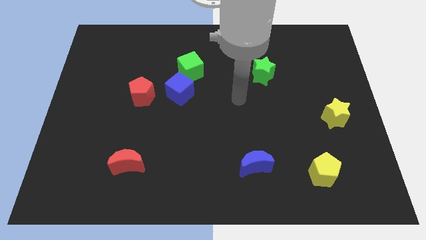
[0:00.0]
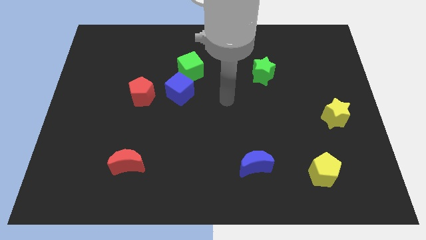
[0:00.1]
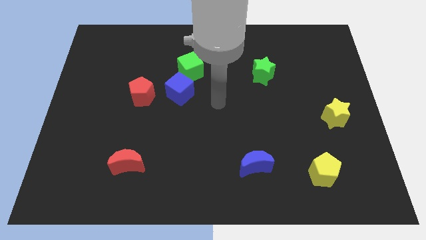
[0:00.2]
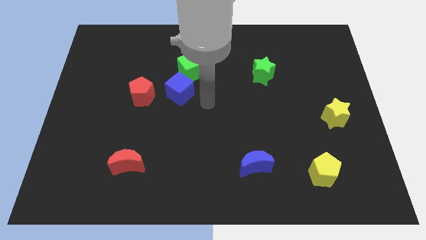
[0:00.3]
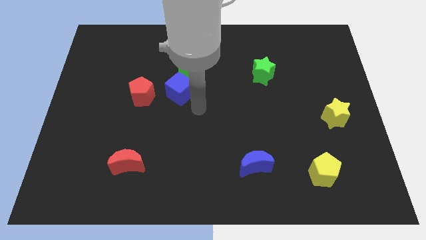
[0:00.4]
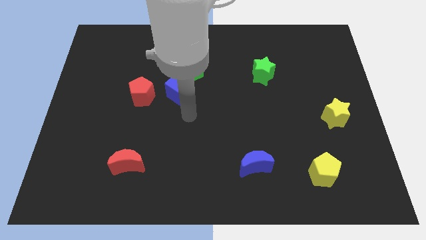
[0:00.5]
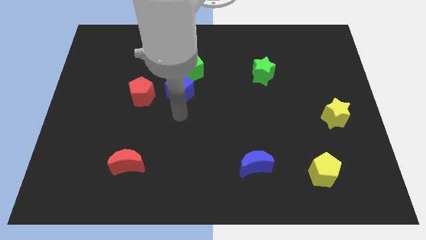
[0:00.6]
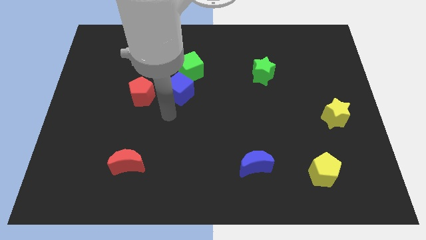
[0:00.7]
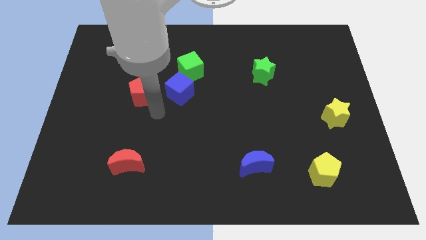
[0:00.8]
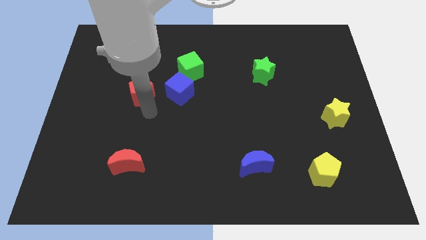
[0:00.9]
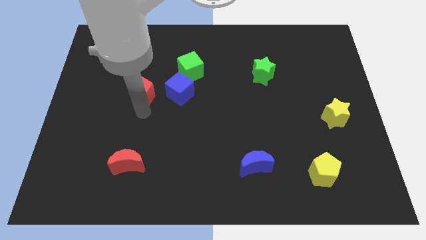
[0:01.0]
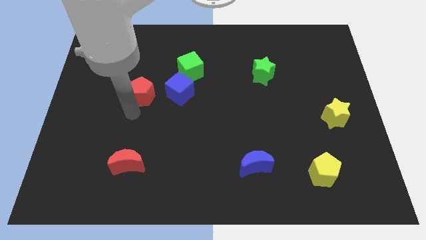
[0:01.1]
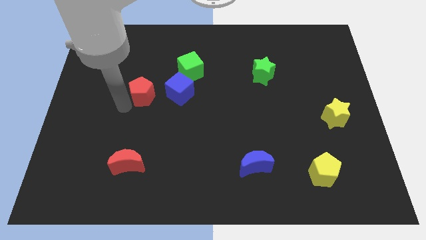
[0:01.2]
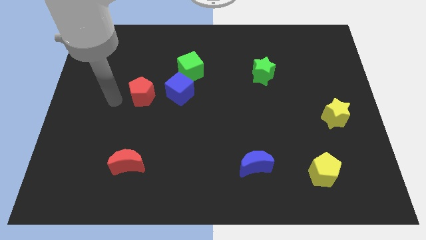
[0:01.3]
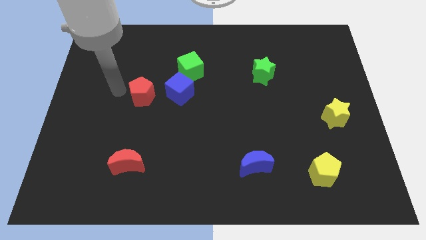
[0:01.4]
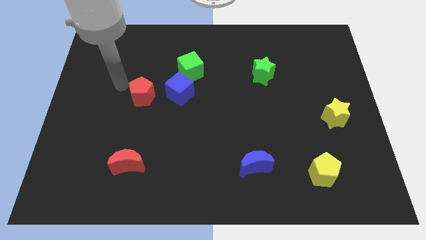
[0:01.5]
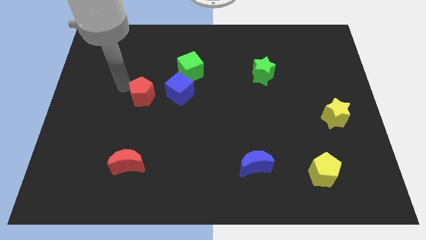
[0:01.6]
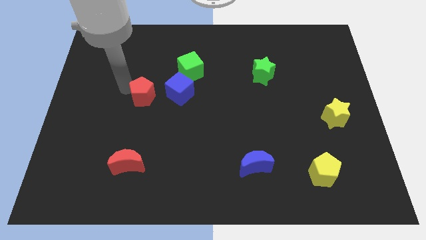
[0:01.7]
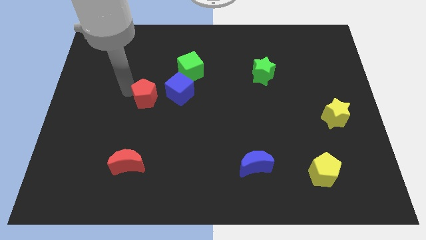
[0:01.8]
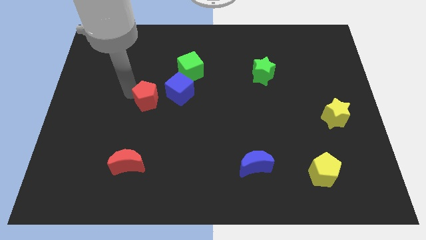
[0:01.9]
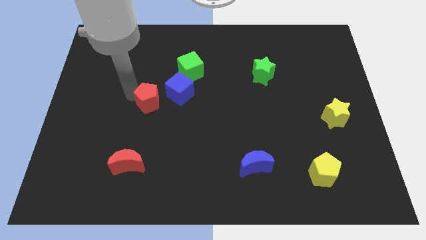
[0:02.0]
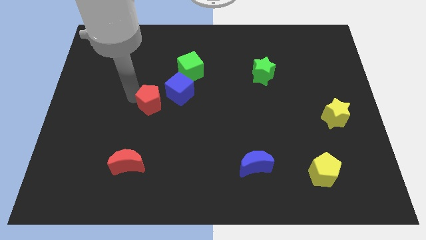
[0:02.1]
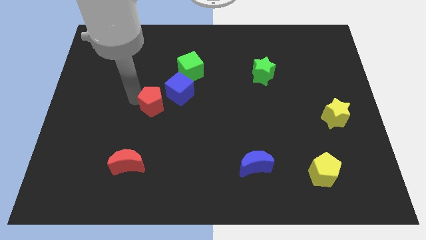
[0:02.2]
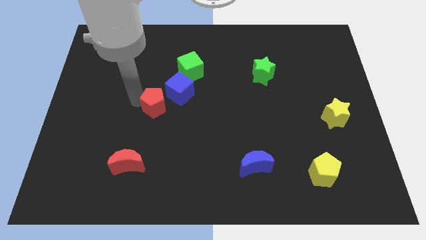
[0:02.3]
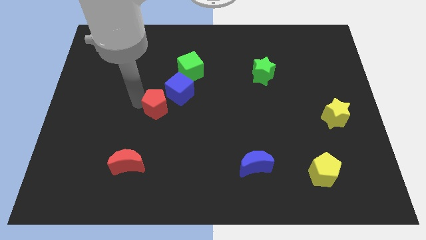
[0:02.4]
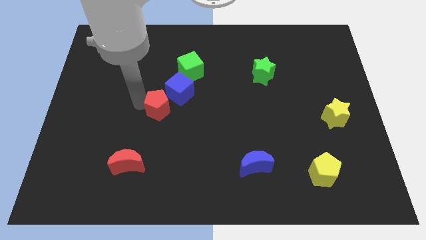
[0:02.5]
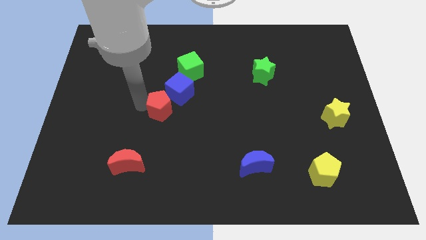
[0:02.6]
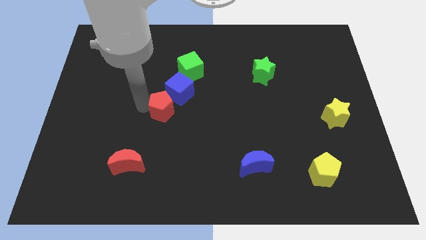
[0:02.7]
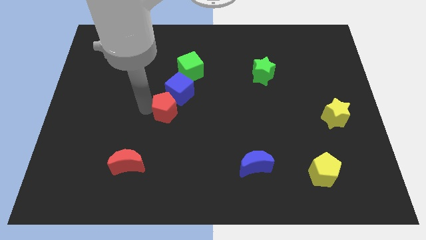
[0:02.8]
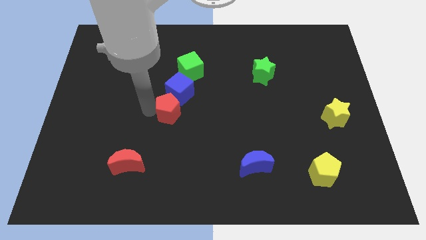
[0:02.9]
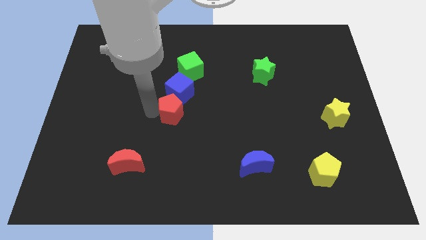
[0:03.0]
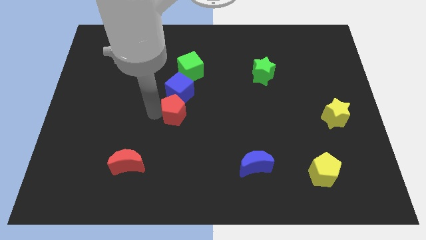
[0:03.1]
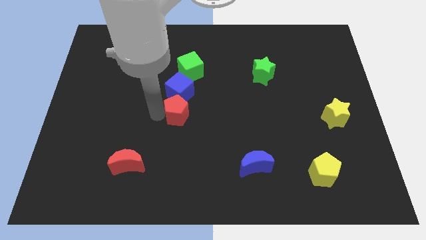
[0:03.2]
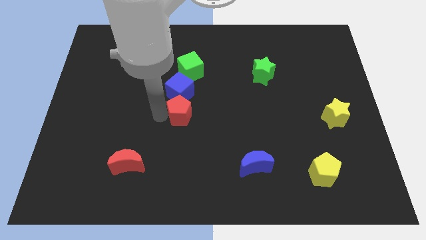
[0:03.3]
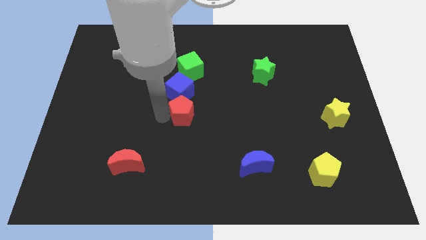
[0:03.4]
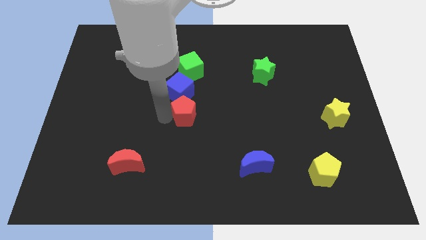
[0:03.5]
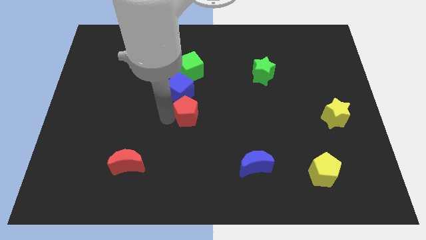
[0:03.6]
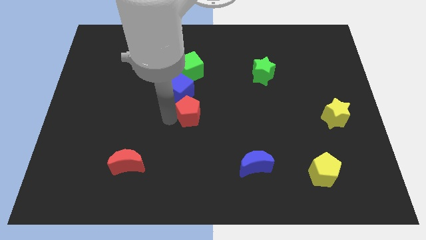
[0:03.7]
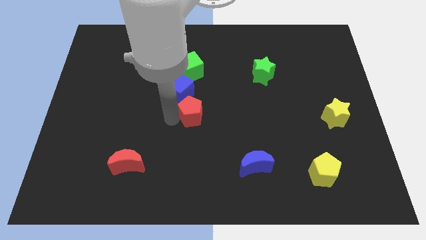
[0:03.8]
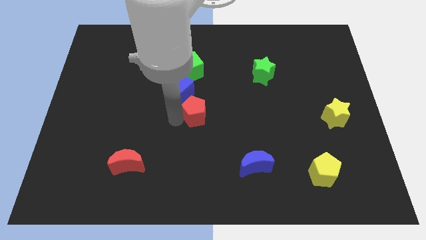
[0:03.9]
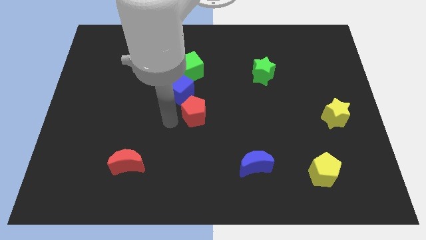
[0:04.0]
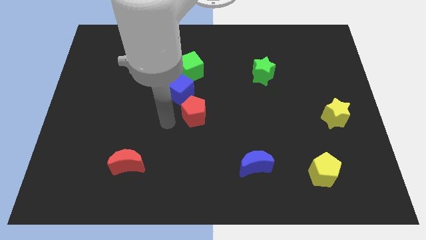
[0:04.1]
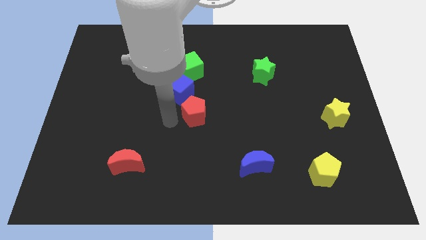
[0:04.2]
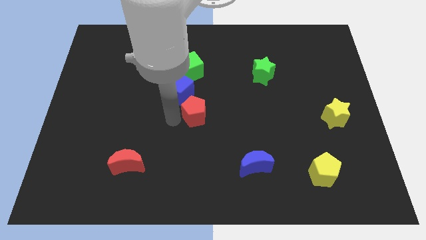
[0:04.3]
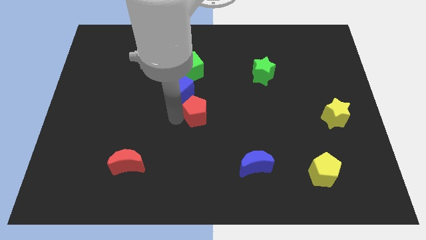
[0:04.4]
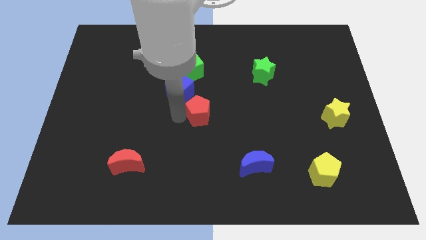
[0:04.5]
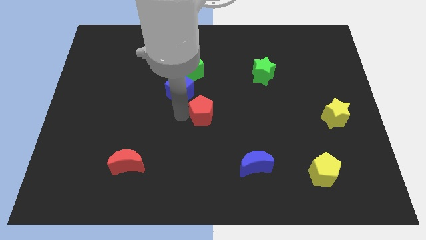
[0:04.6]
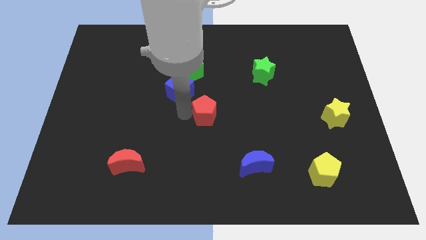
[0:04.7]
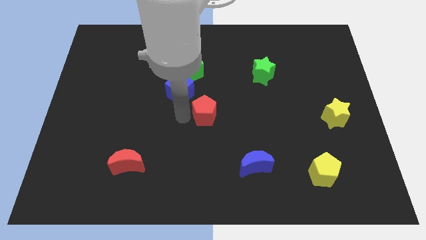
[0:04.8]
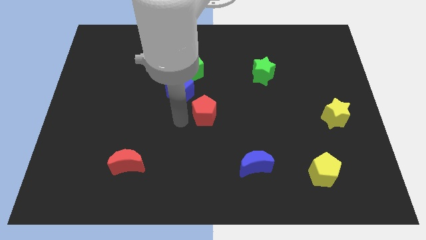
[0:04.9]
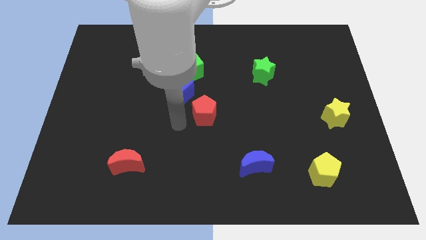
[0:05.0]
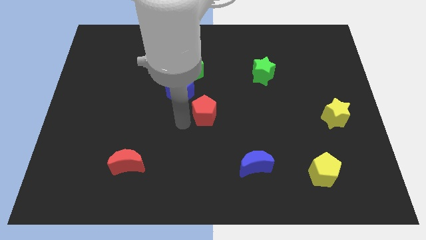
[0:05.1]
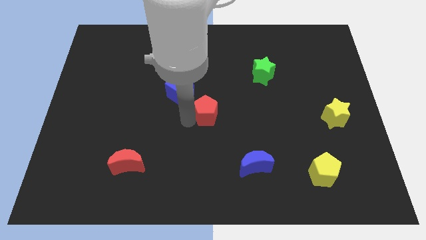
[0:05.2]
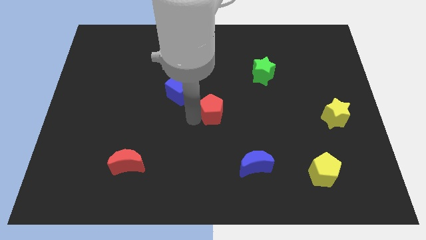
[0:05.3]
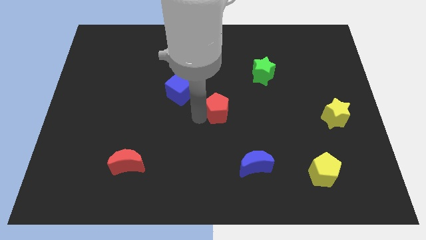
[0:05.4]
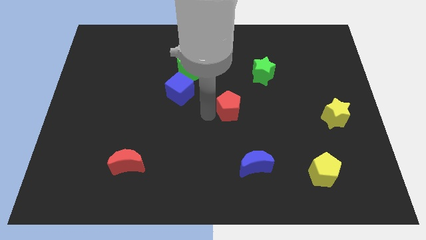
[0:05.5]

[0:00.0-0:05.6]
move the red pentagon right

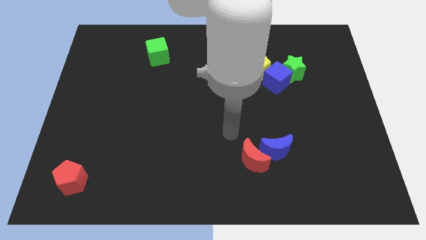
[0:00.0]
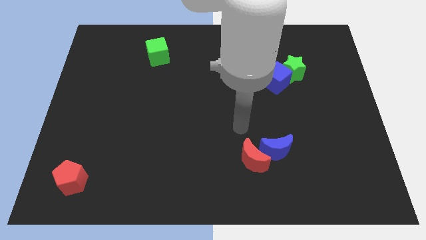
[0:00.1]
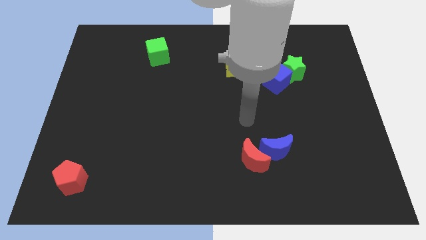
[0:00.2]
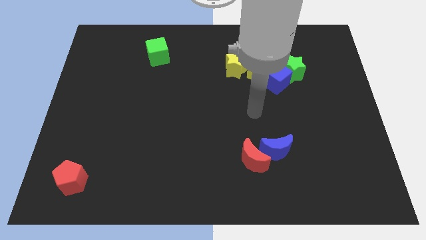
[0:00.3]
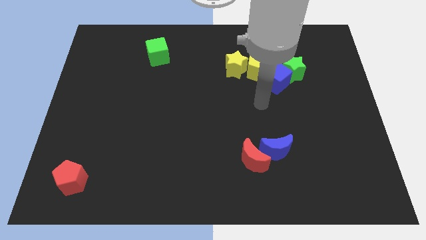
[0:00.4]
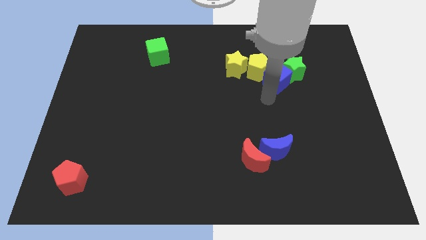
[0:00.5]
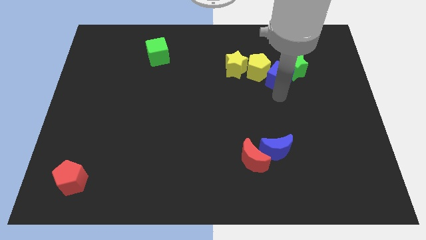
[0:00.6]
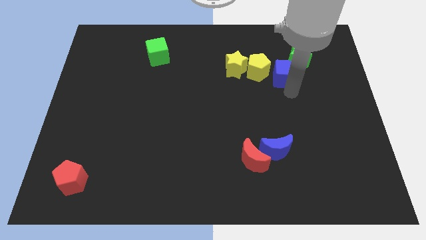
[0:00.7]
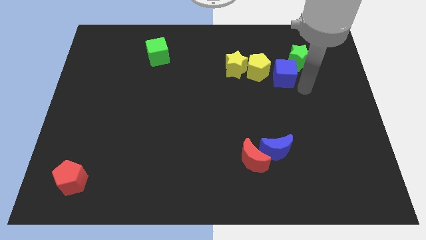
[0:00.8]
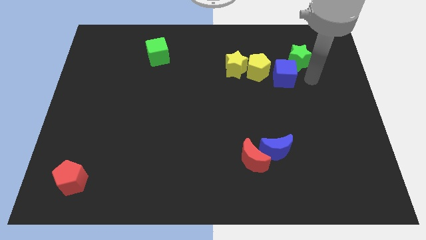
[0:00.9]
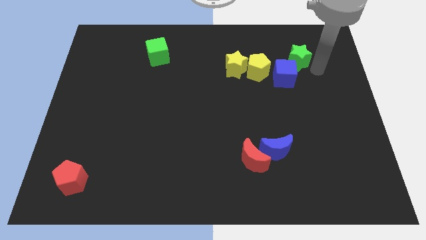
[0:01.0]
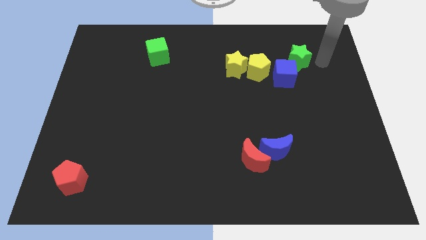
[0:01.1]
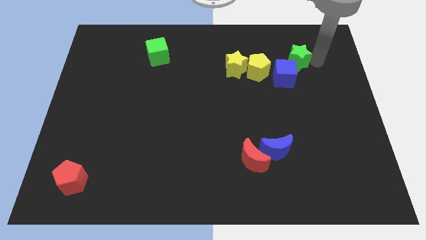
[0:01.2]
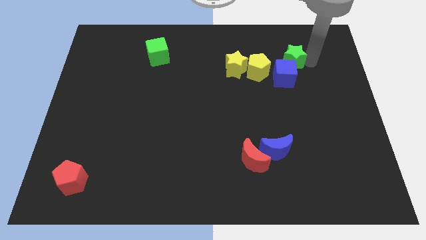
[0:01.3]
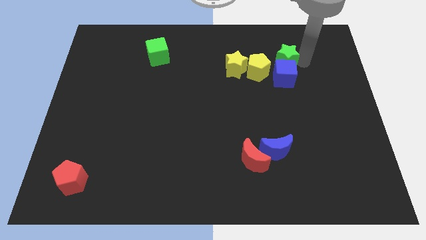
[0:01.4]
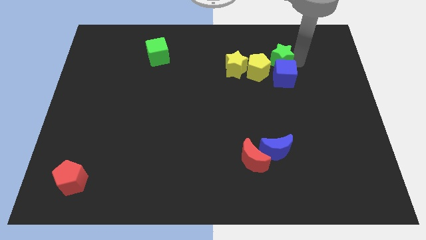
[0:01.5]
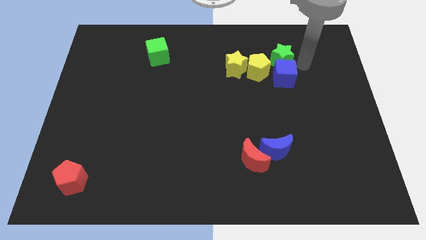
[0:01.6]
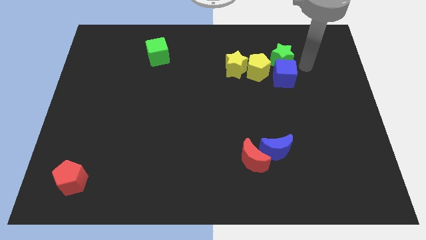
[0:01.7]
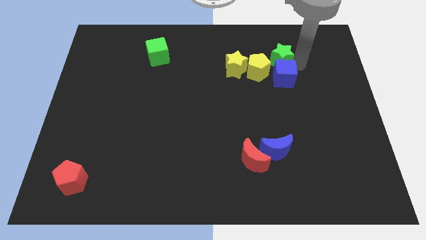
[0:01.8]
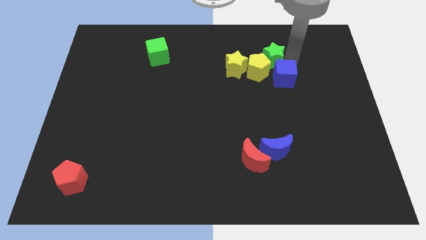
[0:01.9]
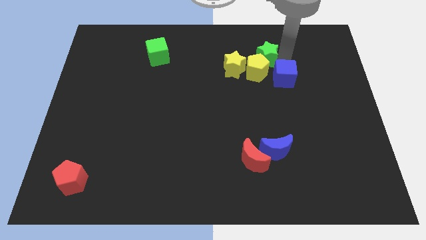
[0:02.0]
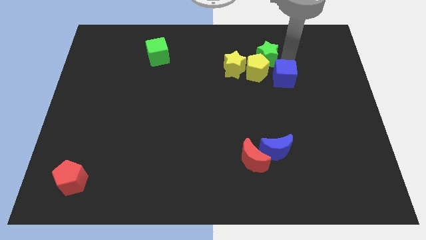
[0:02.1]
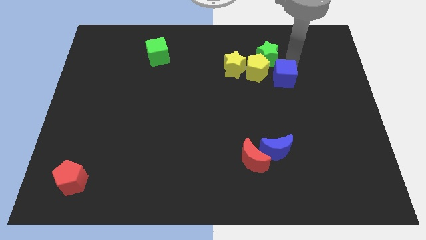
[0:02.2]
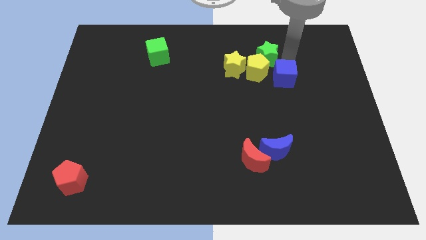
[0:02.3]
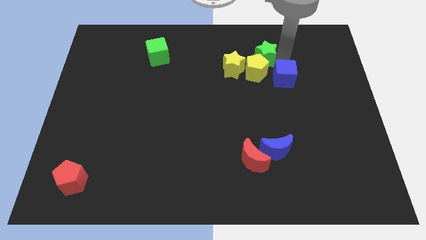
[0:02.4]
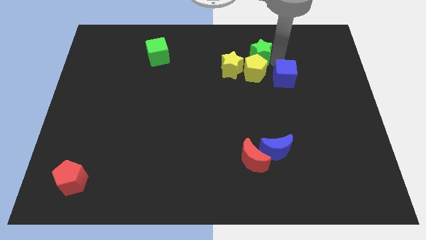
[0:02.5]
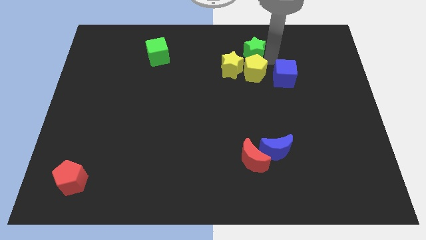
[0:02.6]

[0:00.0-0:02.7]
move the green star slightly left
